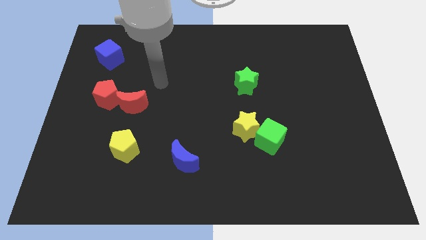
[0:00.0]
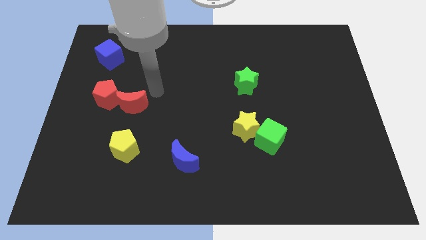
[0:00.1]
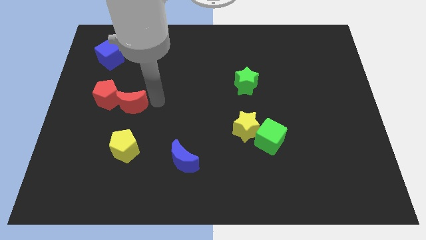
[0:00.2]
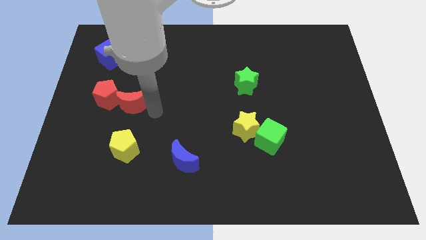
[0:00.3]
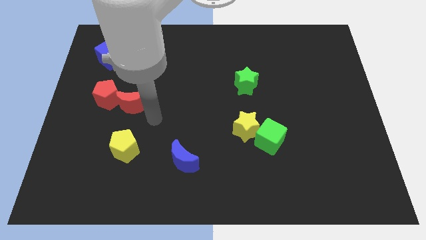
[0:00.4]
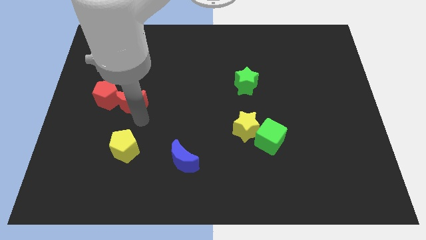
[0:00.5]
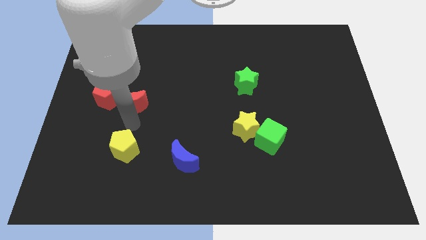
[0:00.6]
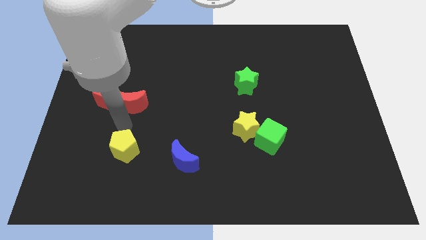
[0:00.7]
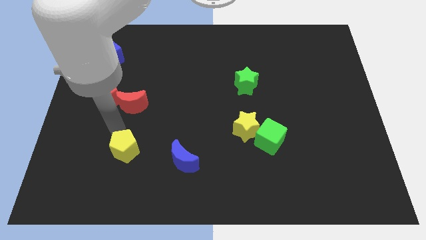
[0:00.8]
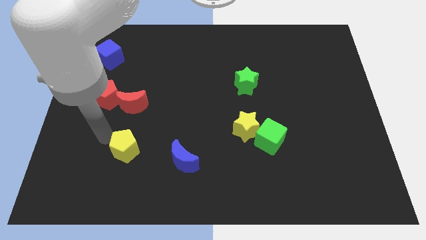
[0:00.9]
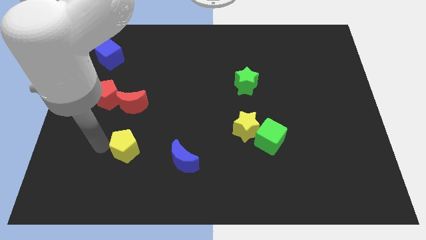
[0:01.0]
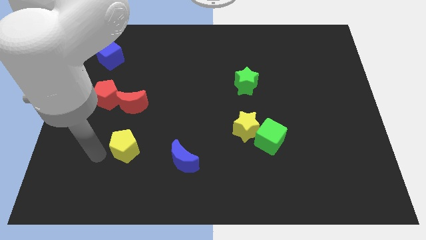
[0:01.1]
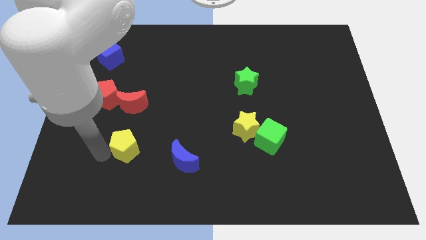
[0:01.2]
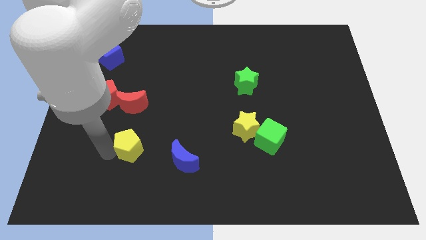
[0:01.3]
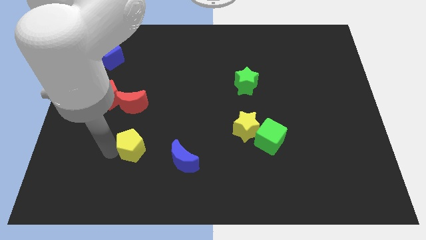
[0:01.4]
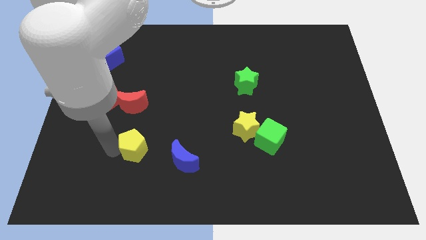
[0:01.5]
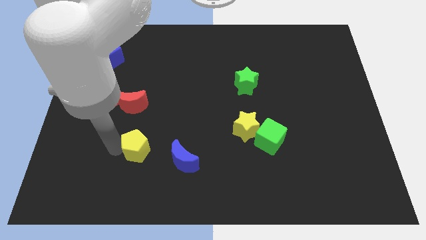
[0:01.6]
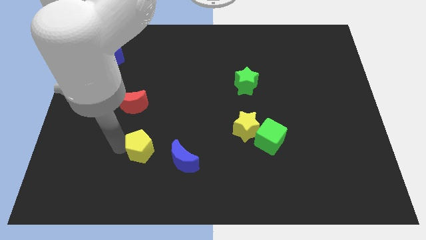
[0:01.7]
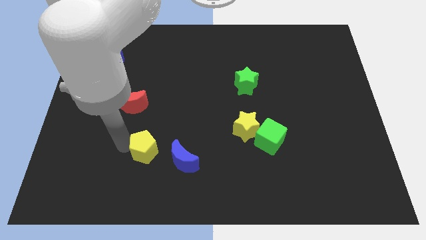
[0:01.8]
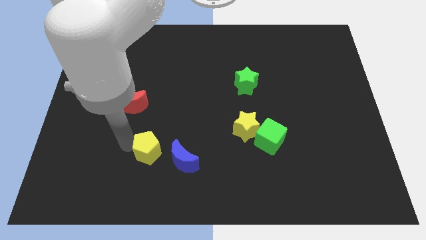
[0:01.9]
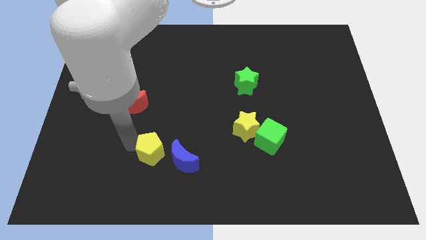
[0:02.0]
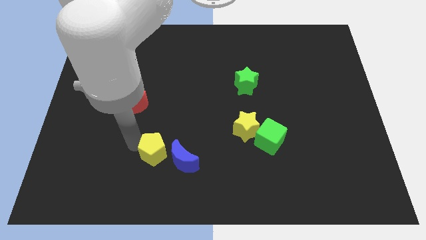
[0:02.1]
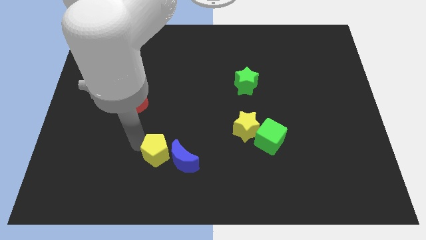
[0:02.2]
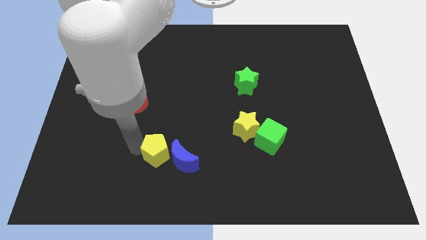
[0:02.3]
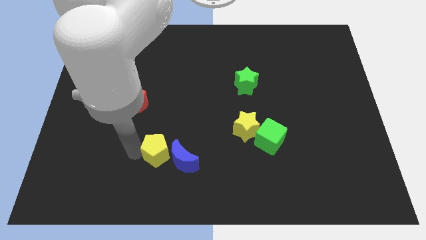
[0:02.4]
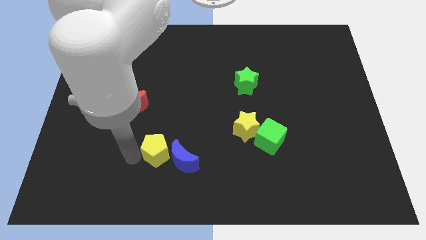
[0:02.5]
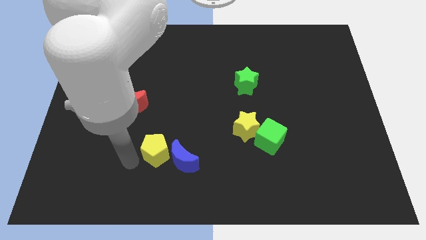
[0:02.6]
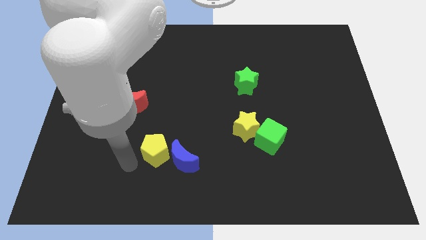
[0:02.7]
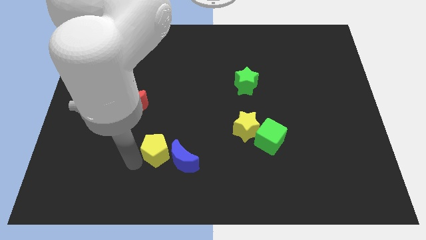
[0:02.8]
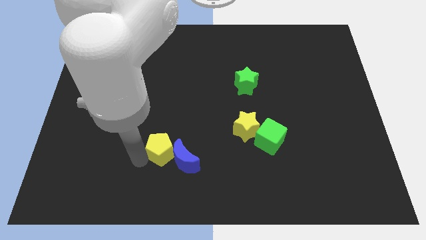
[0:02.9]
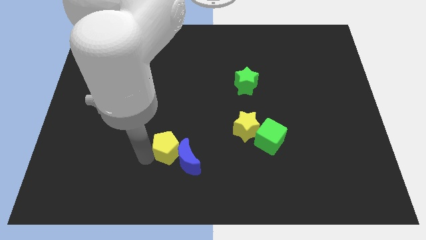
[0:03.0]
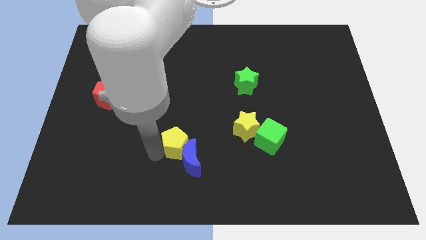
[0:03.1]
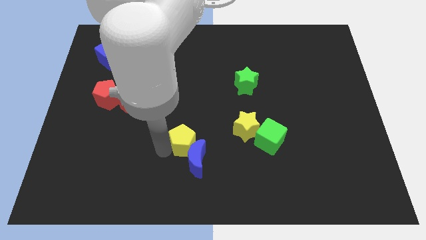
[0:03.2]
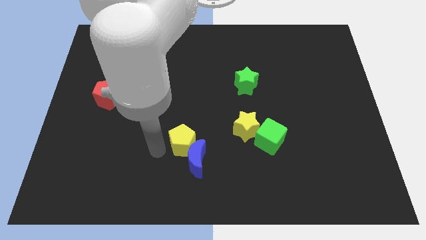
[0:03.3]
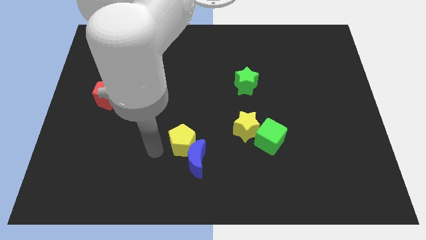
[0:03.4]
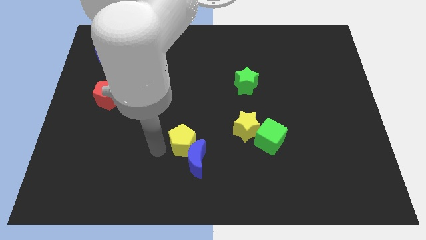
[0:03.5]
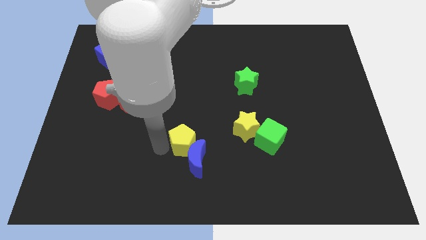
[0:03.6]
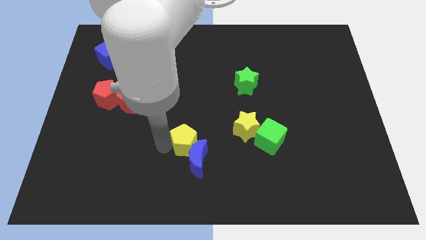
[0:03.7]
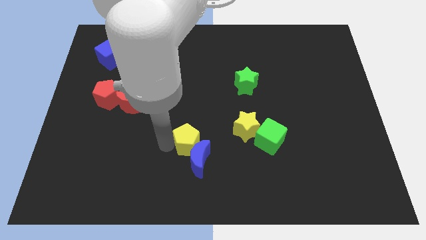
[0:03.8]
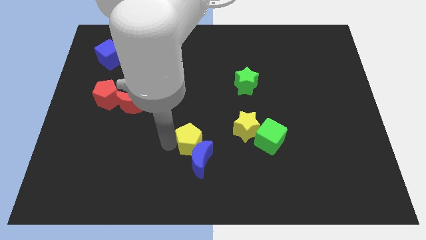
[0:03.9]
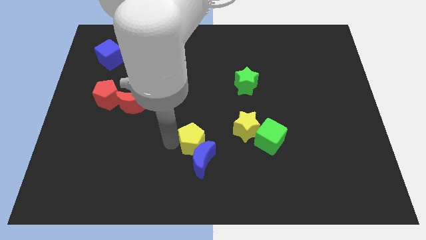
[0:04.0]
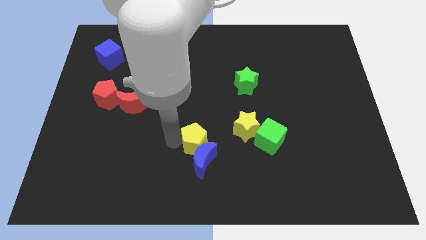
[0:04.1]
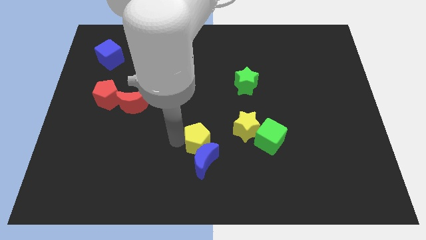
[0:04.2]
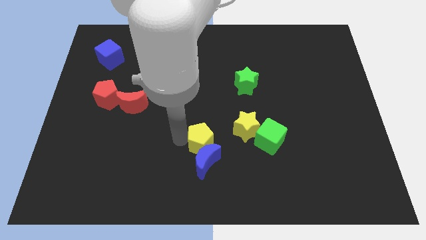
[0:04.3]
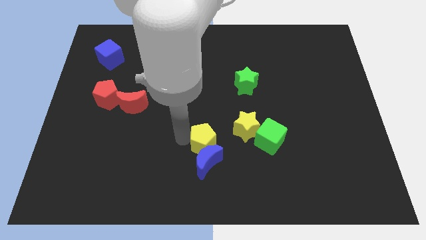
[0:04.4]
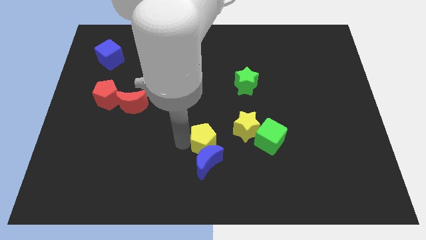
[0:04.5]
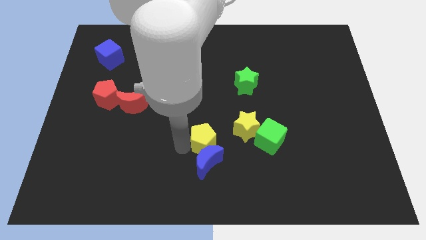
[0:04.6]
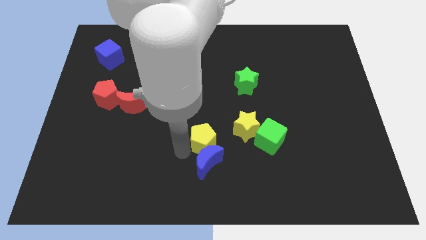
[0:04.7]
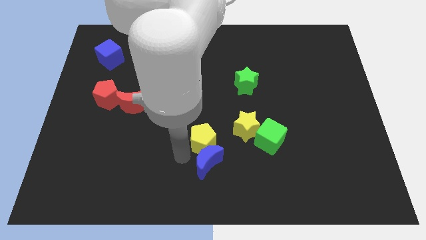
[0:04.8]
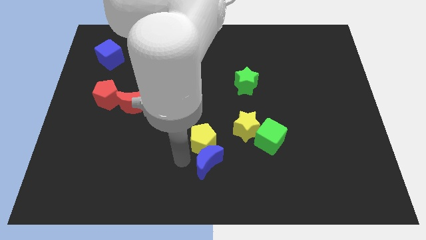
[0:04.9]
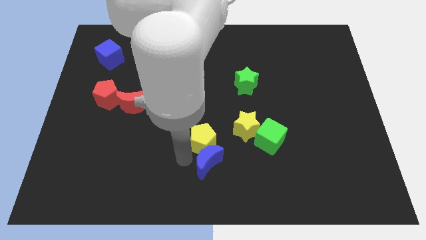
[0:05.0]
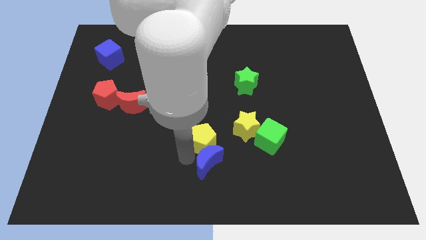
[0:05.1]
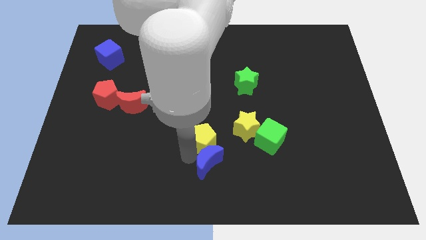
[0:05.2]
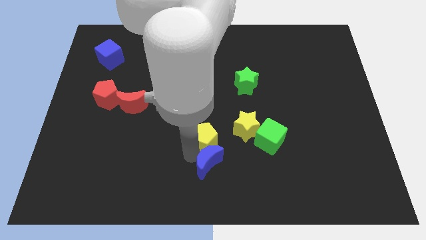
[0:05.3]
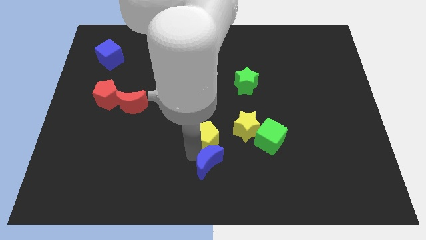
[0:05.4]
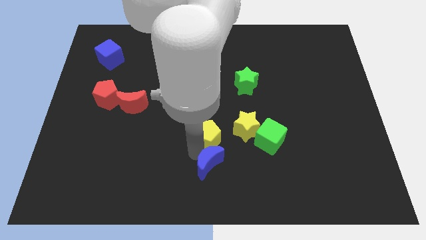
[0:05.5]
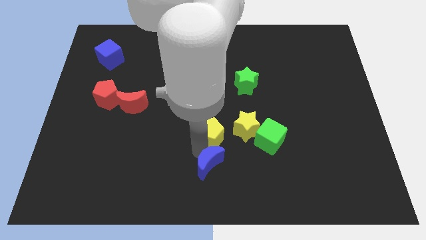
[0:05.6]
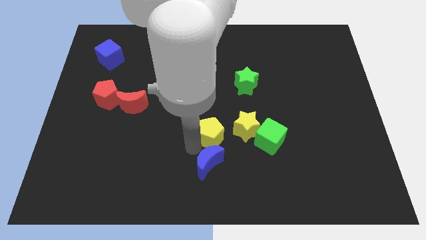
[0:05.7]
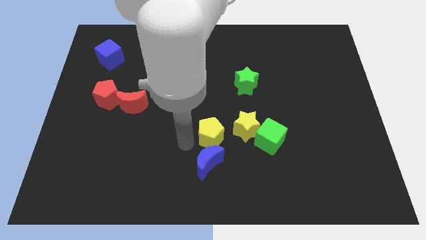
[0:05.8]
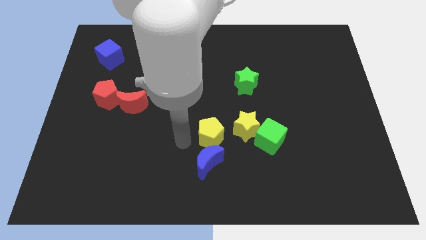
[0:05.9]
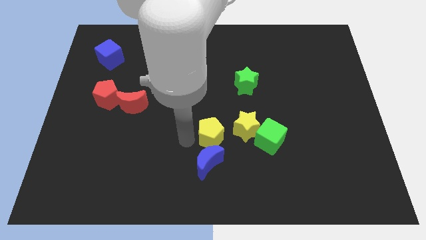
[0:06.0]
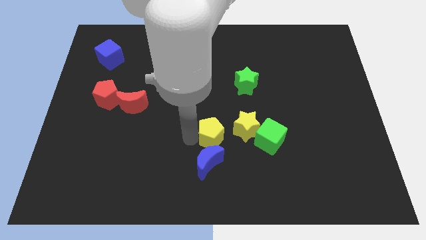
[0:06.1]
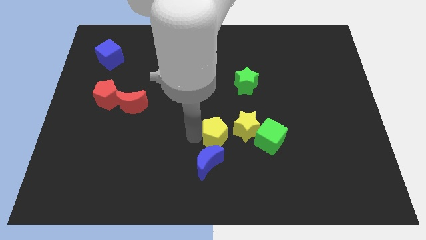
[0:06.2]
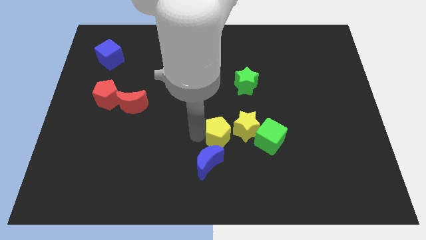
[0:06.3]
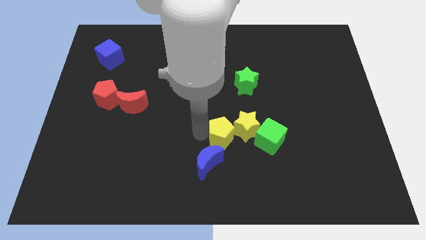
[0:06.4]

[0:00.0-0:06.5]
move the yellow pentagon close to the yellow star

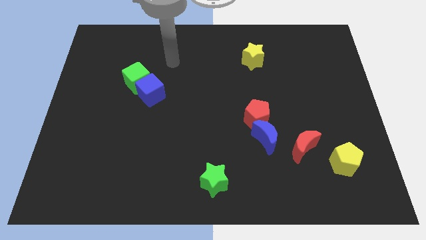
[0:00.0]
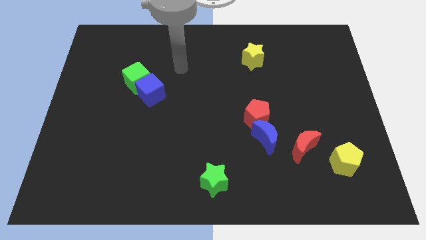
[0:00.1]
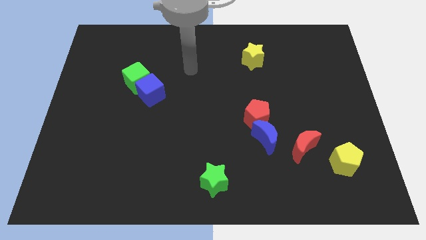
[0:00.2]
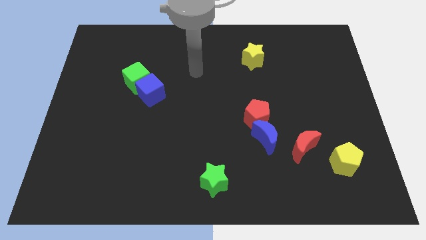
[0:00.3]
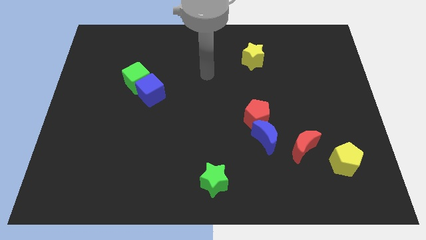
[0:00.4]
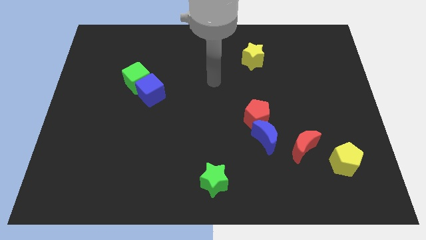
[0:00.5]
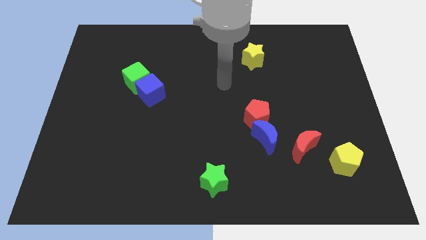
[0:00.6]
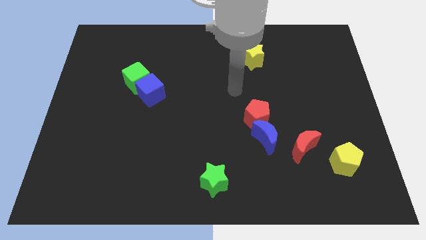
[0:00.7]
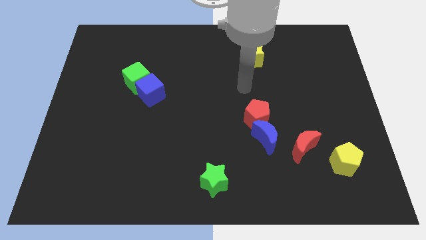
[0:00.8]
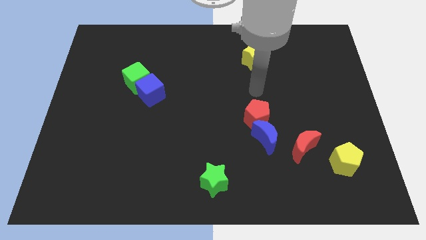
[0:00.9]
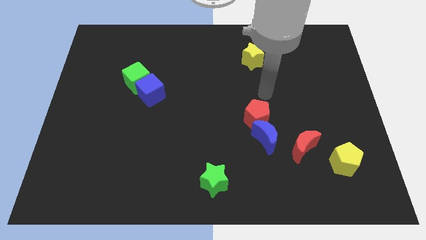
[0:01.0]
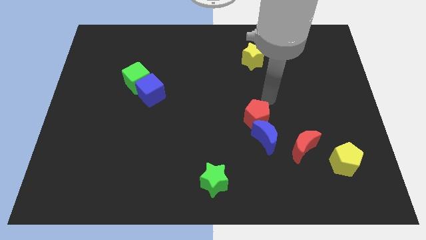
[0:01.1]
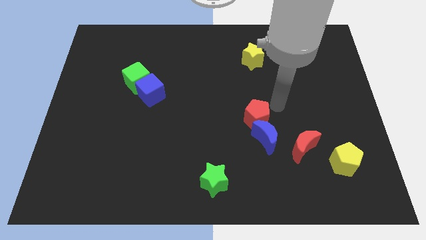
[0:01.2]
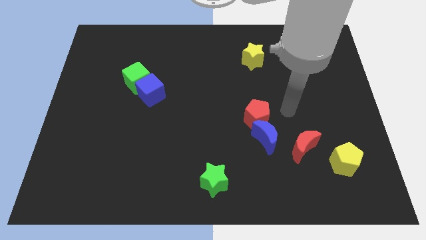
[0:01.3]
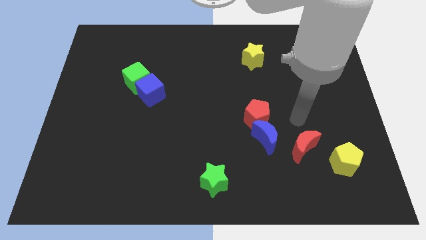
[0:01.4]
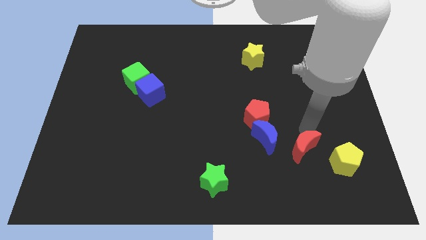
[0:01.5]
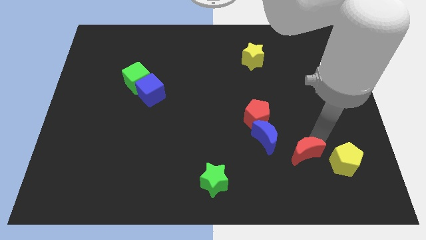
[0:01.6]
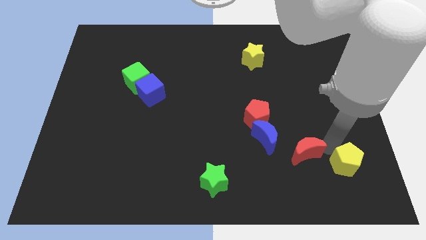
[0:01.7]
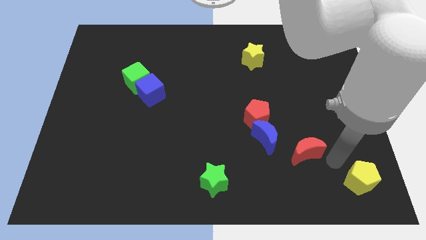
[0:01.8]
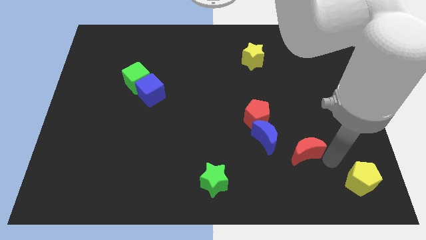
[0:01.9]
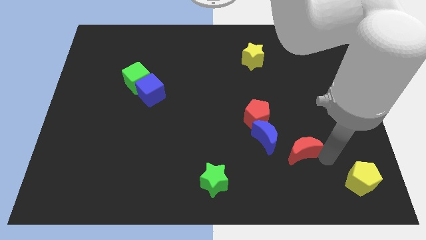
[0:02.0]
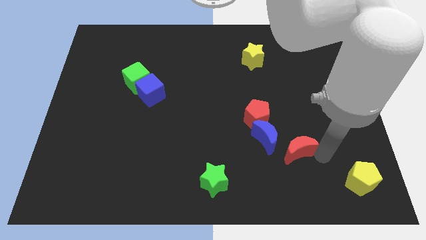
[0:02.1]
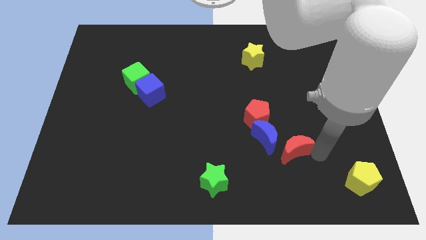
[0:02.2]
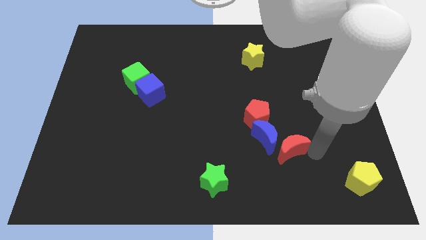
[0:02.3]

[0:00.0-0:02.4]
move the red moon to the blue moon
